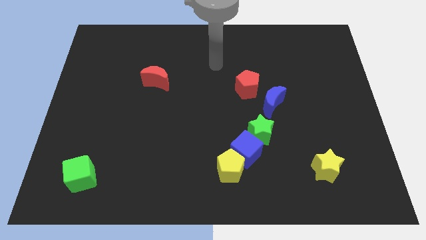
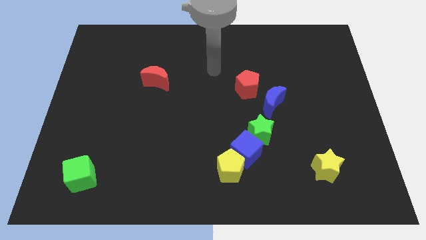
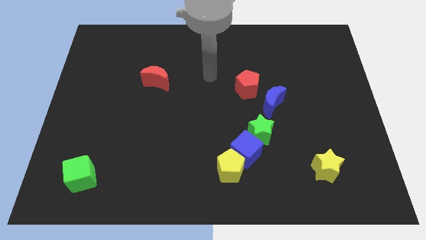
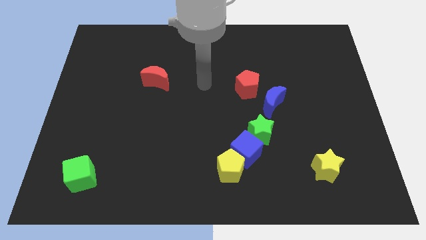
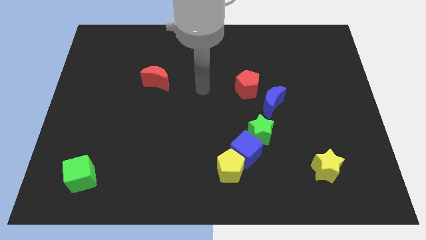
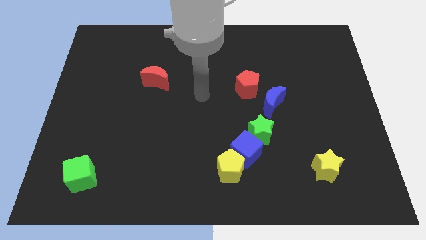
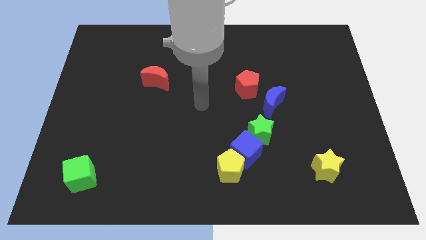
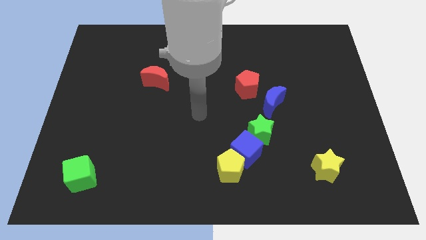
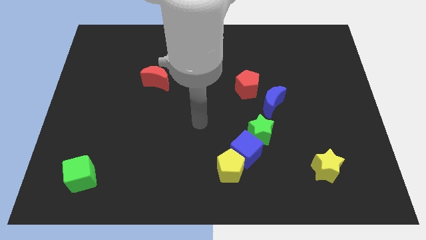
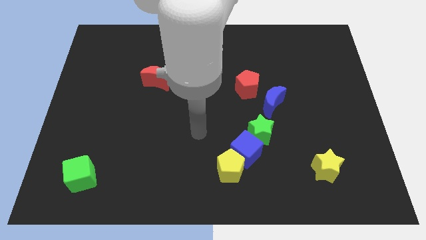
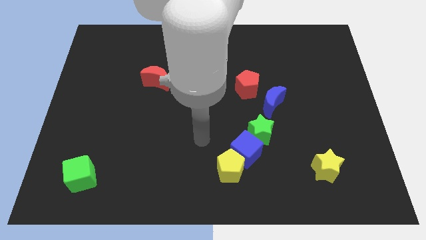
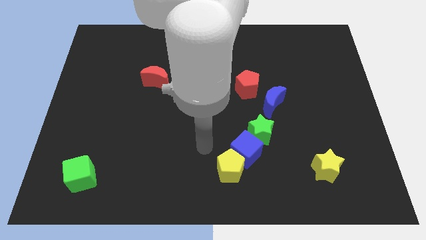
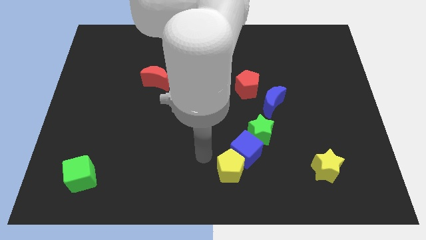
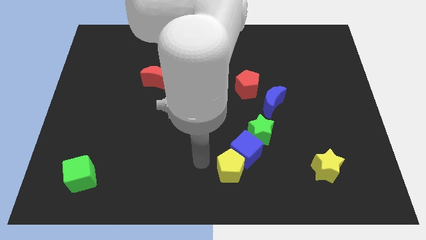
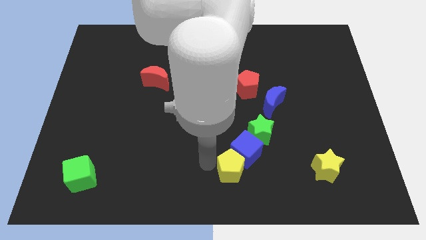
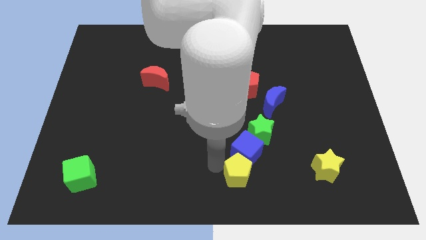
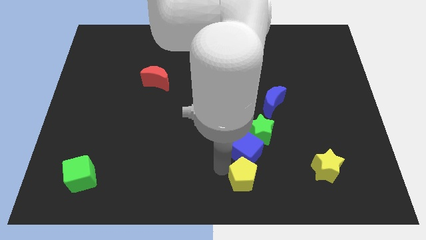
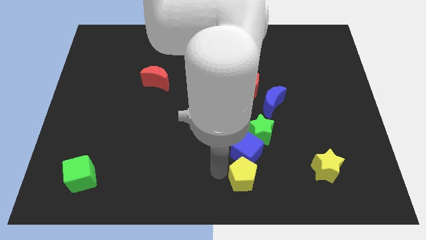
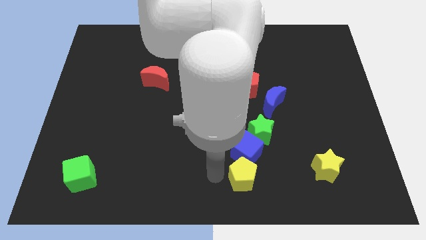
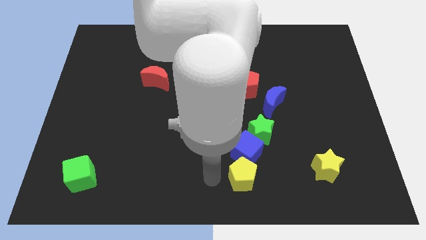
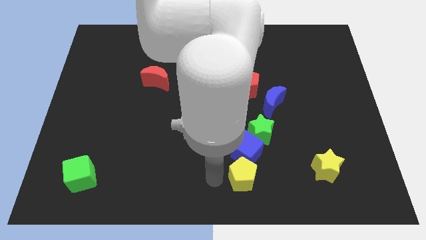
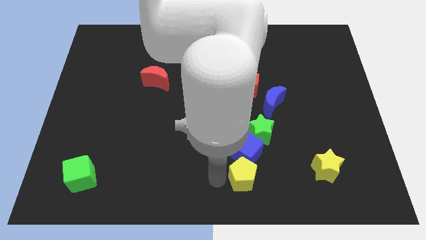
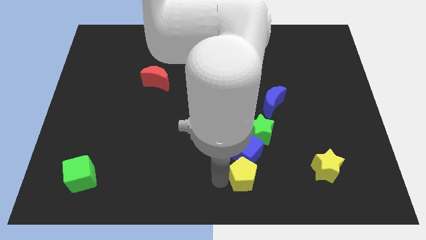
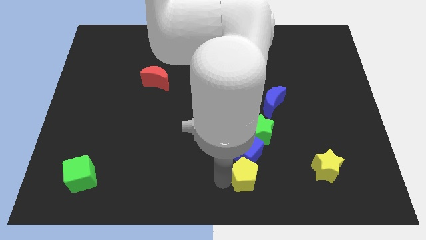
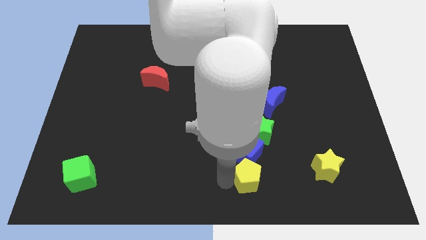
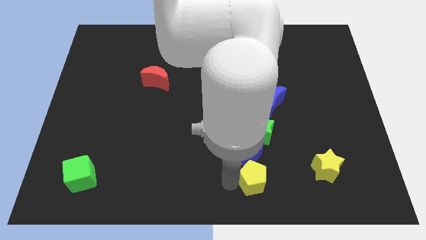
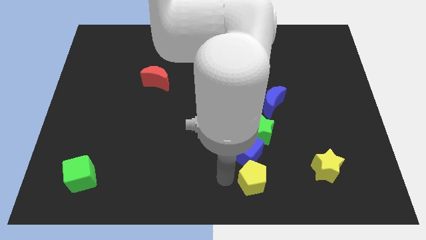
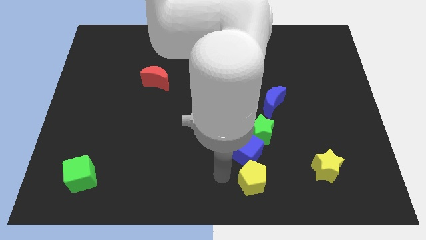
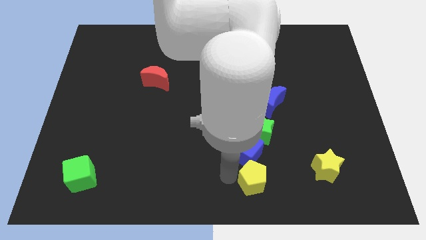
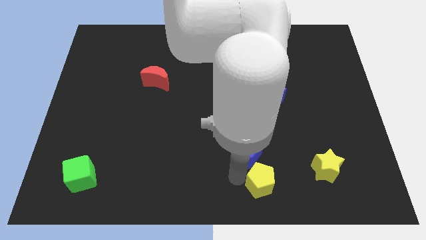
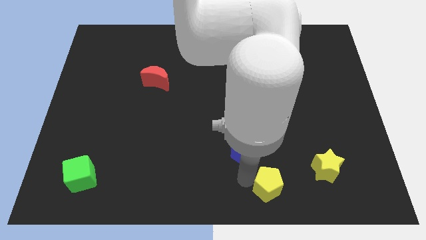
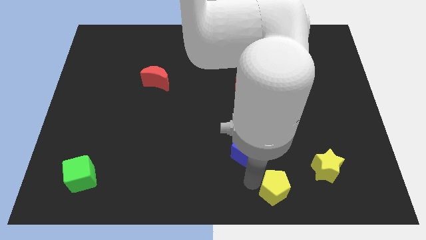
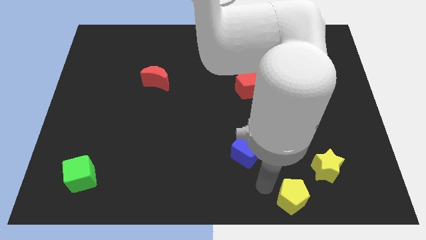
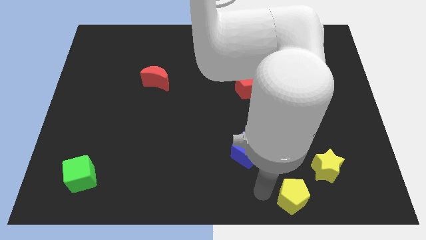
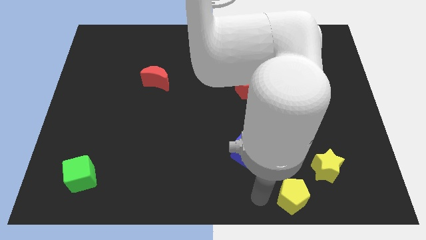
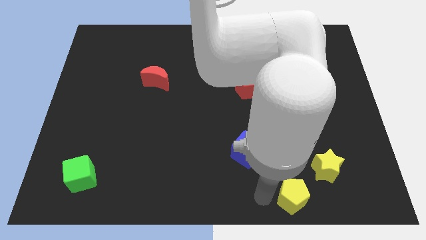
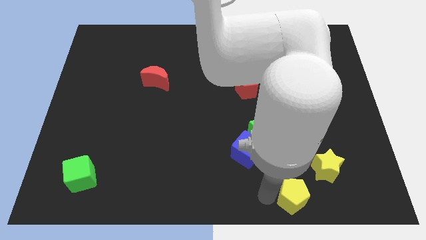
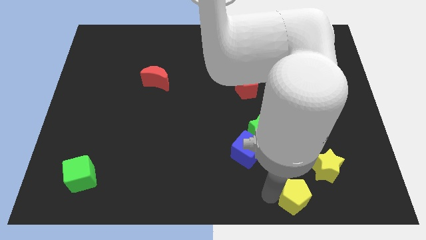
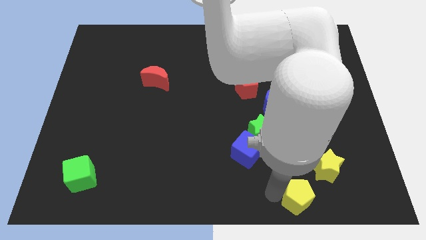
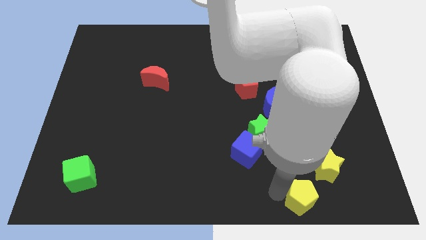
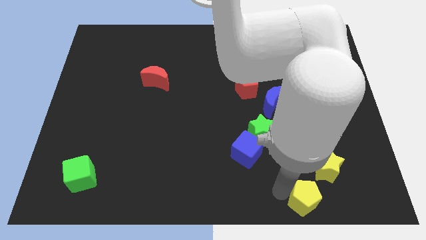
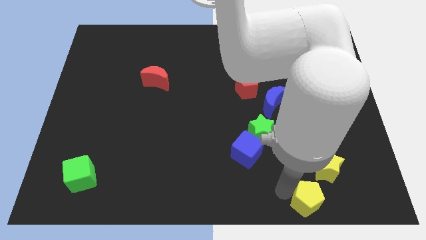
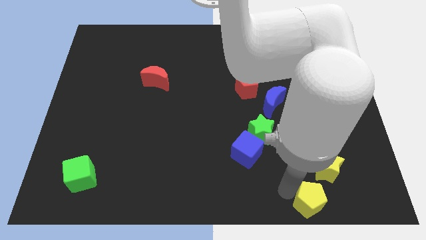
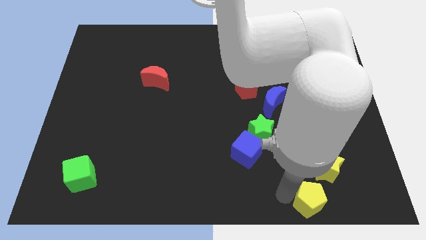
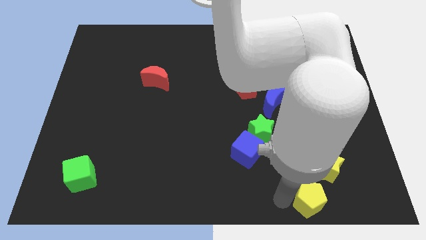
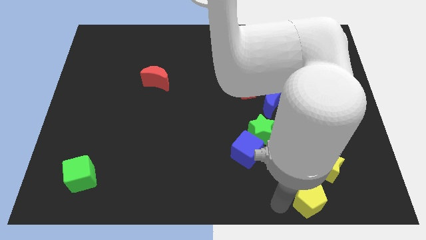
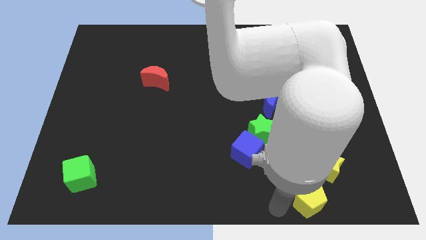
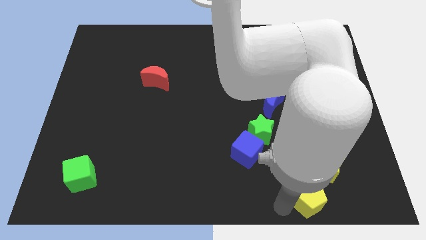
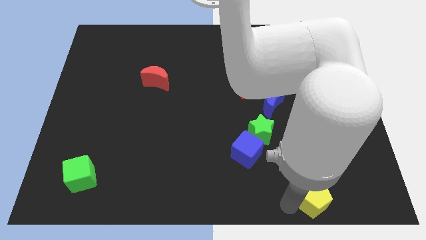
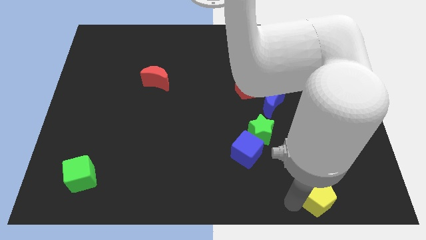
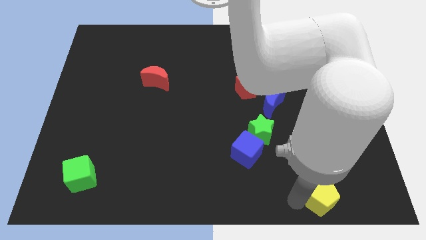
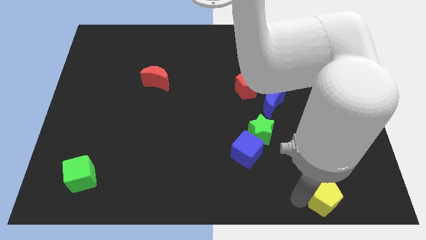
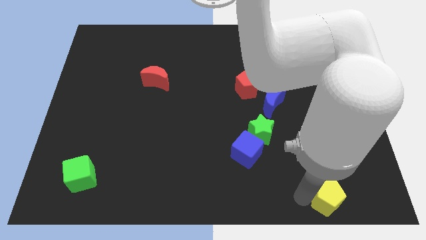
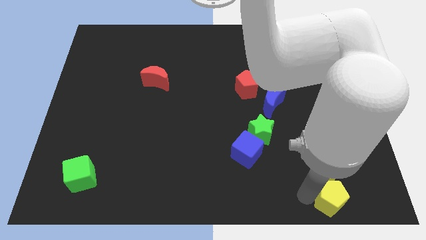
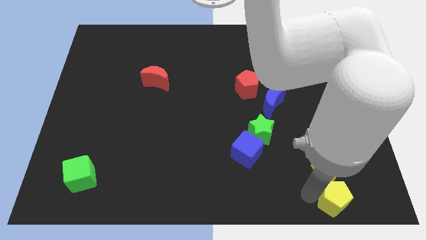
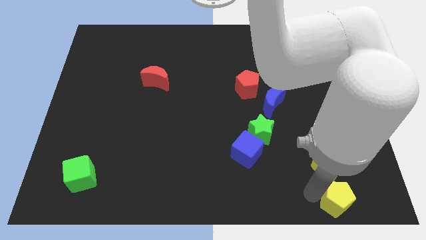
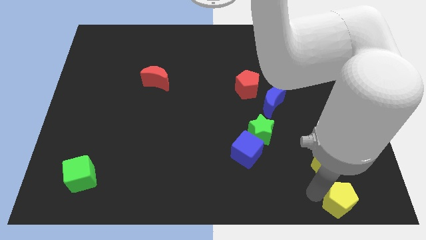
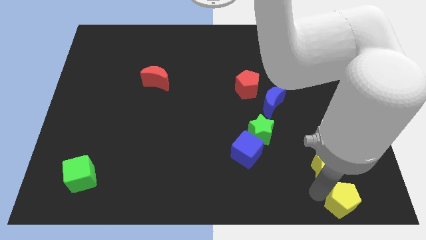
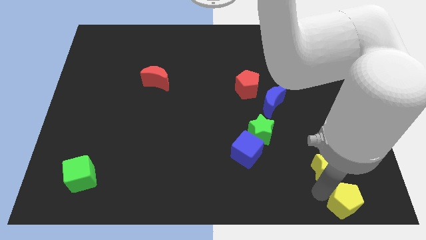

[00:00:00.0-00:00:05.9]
slide the yellow pentagon to the lower right corner

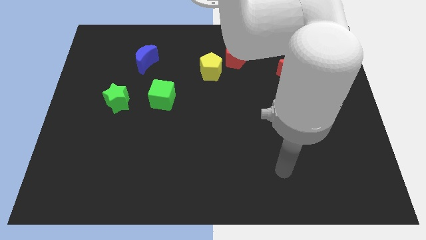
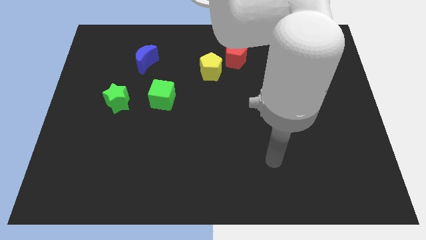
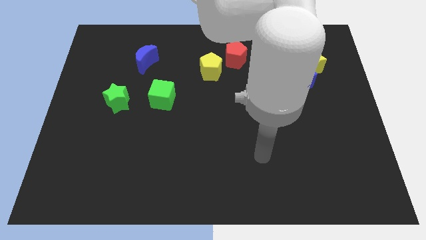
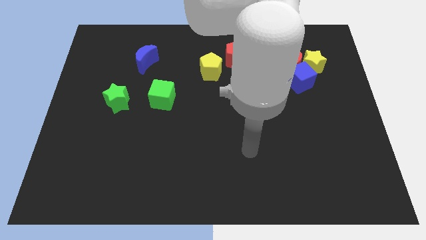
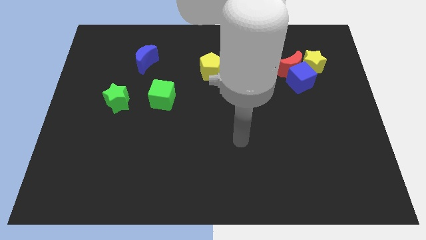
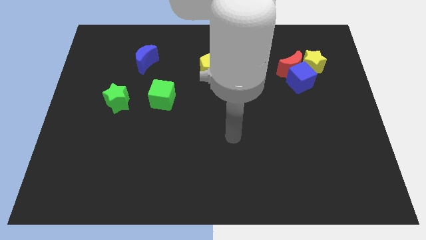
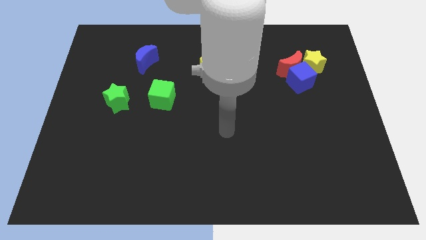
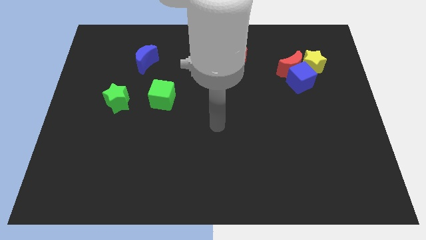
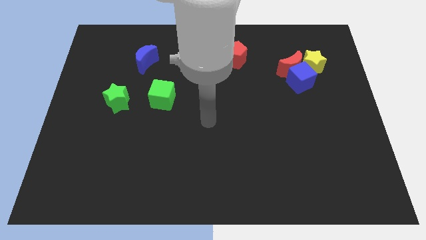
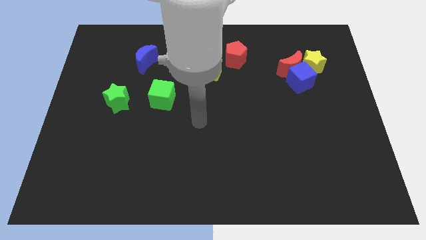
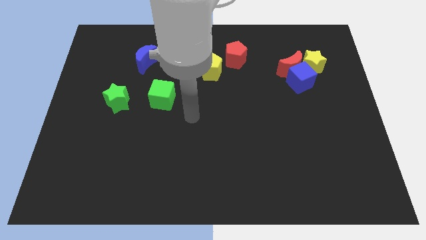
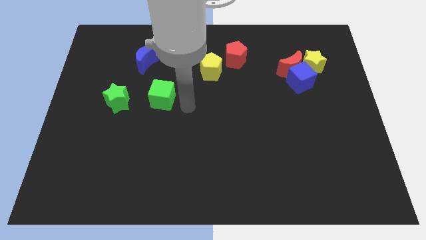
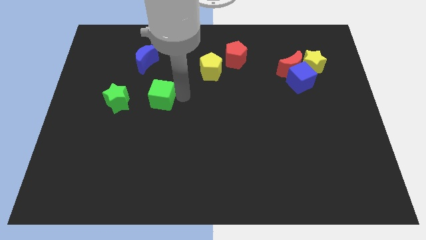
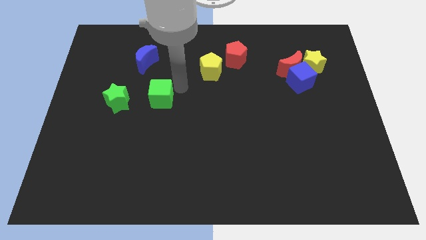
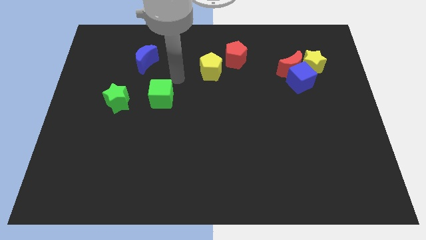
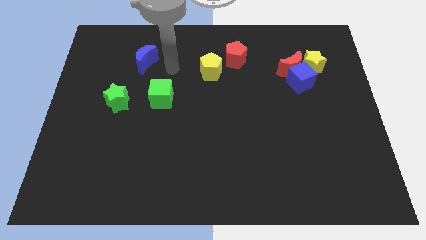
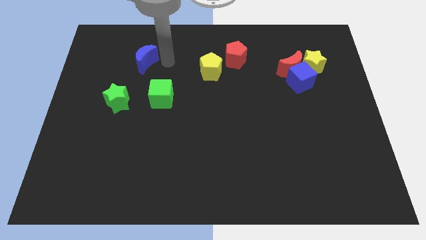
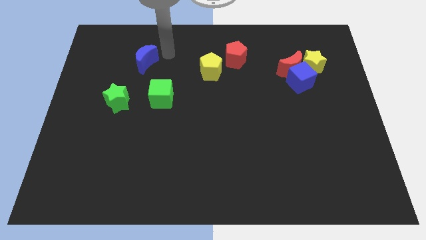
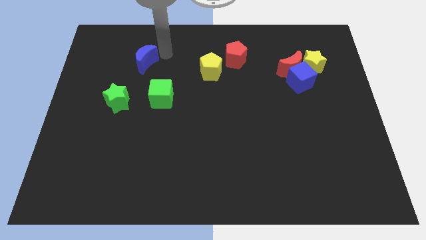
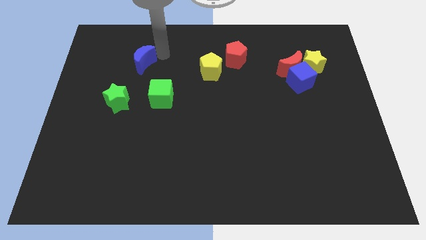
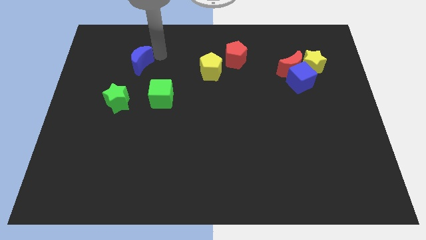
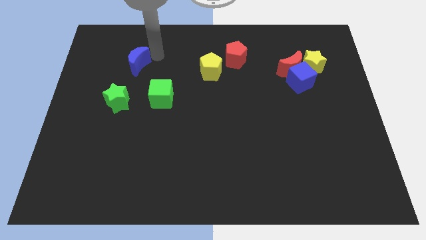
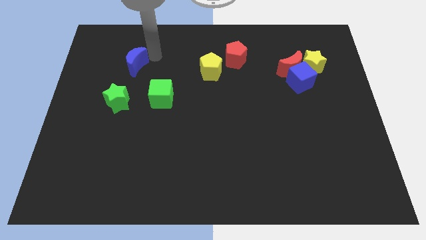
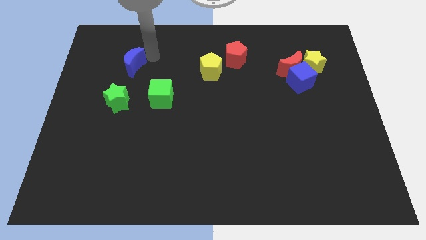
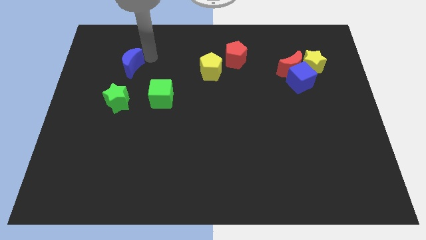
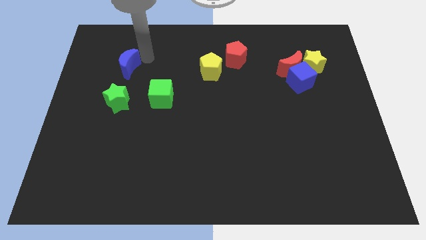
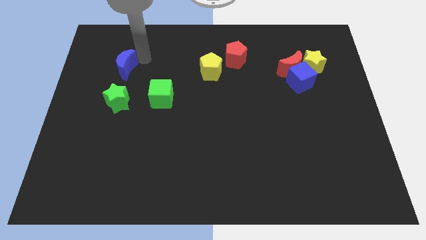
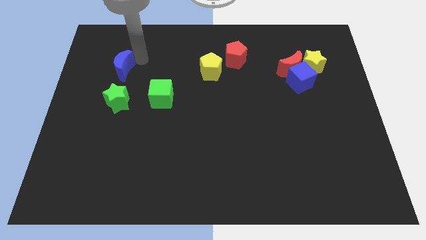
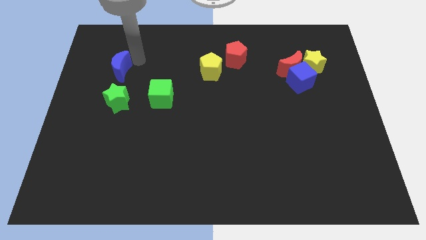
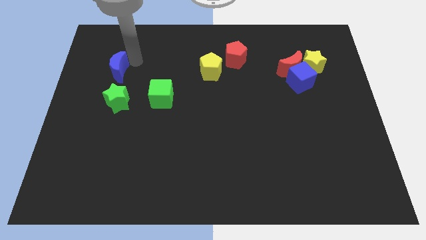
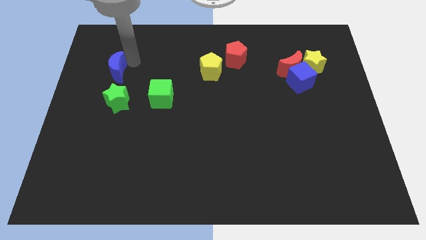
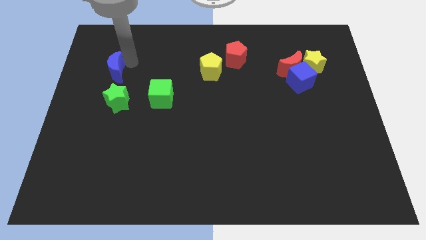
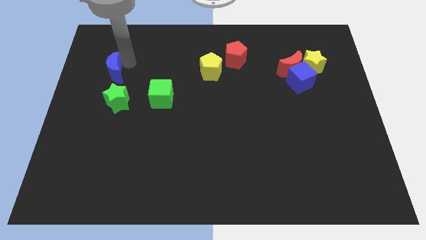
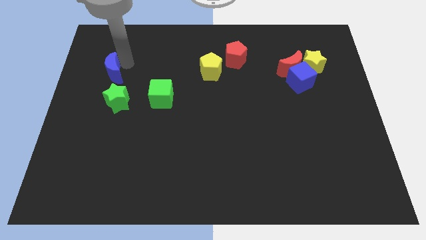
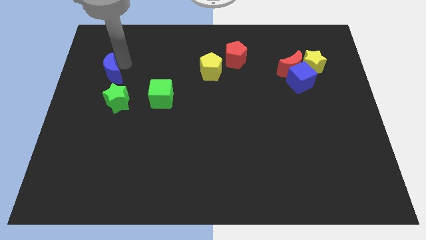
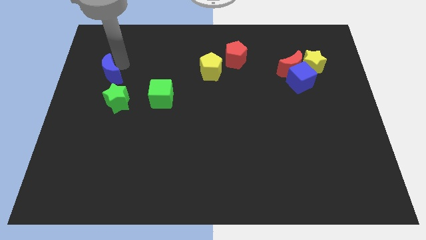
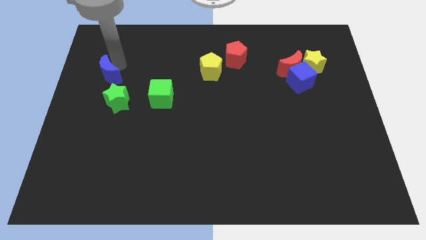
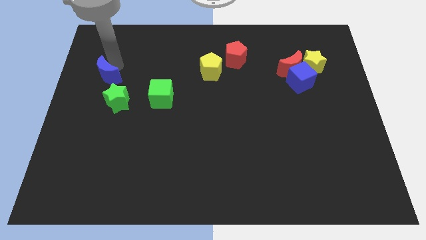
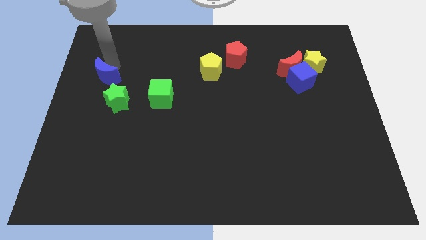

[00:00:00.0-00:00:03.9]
put the blue moon to the left side of the board
